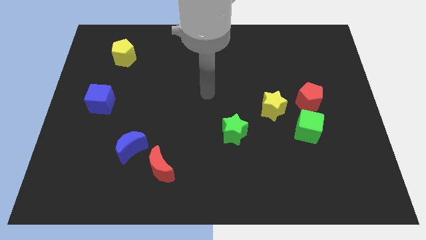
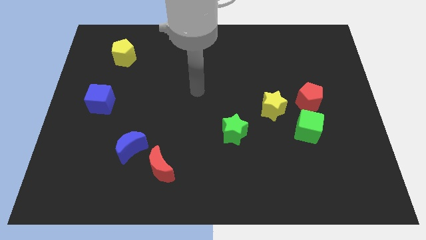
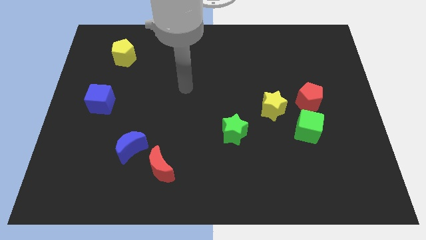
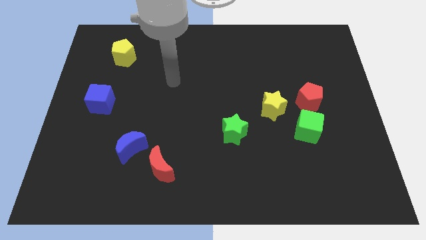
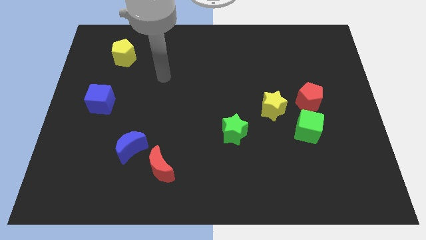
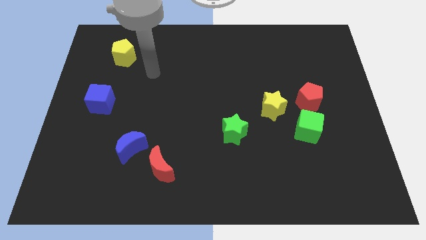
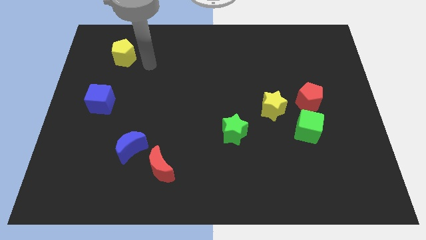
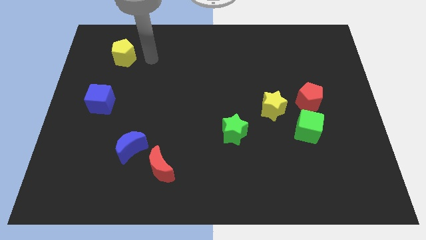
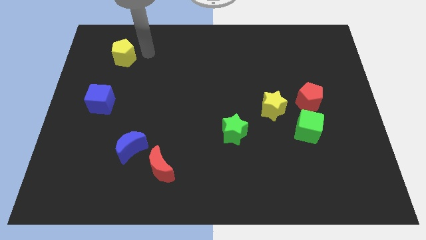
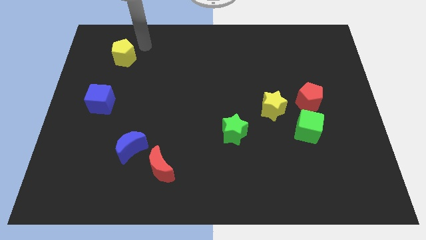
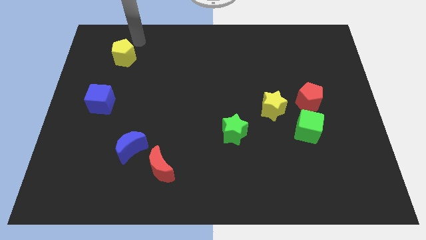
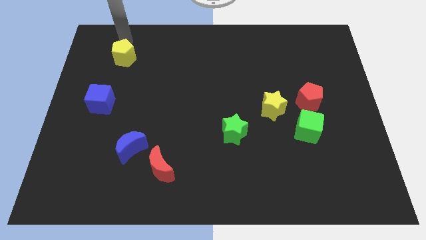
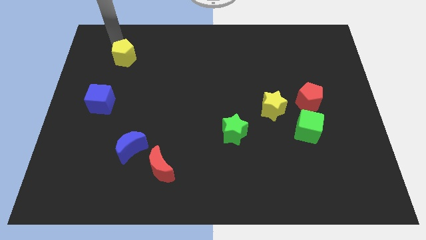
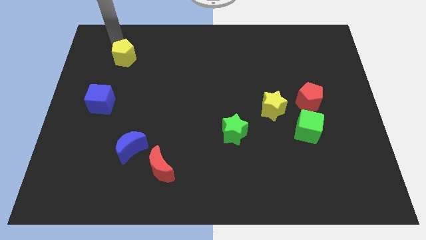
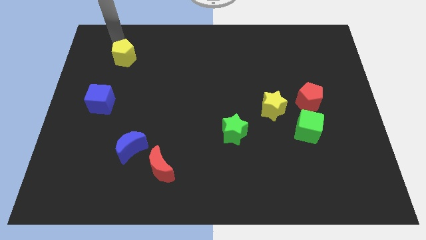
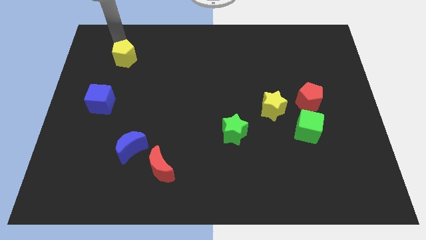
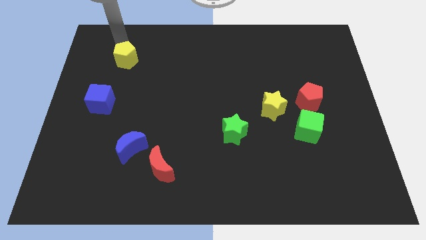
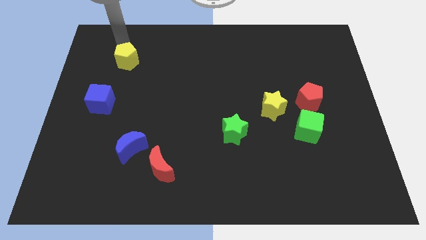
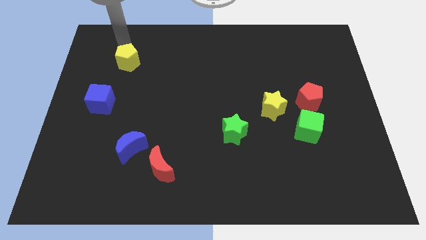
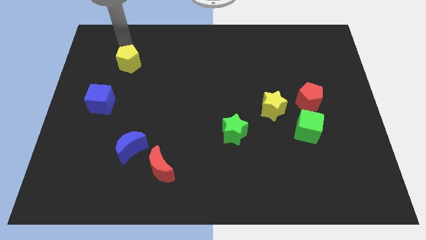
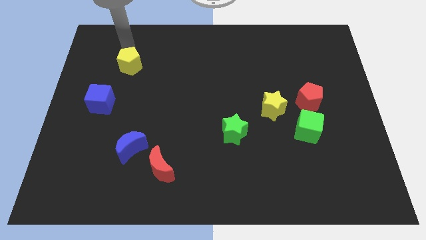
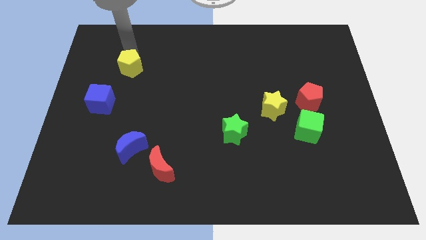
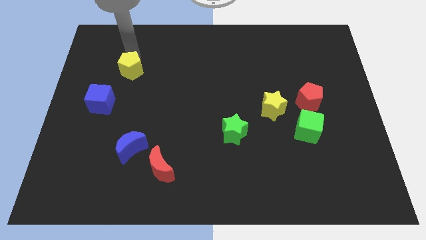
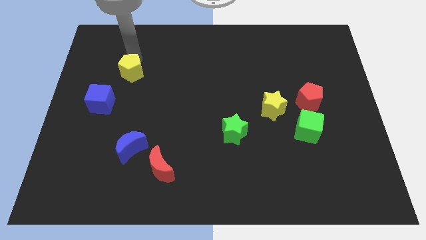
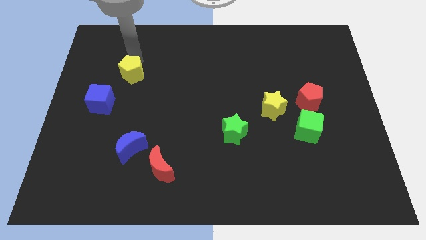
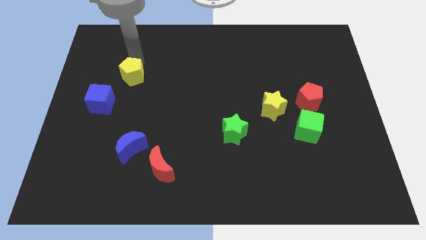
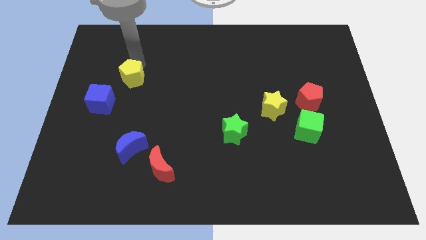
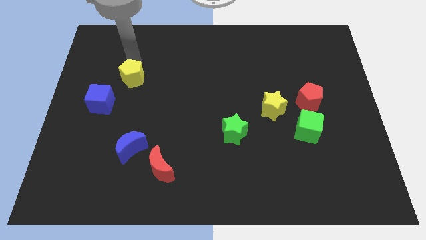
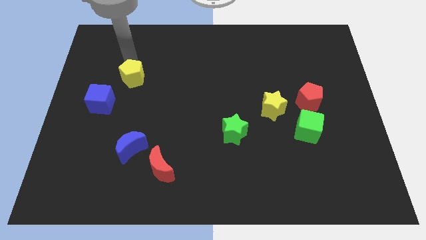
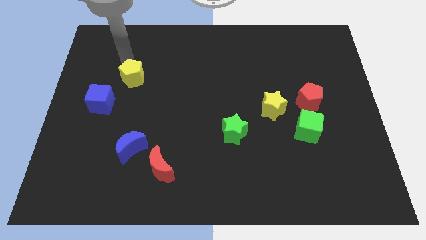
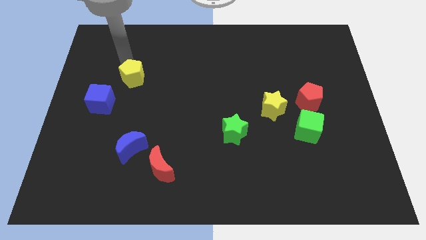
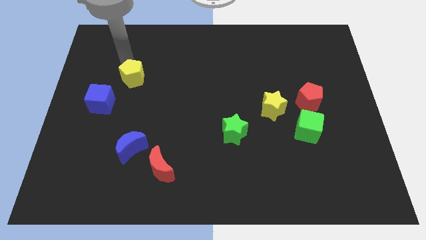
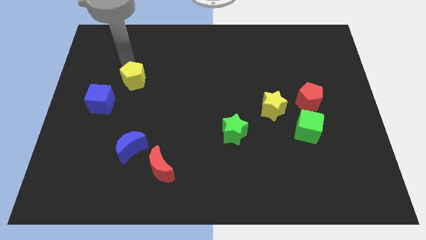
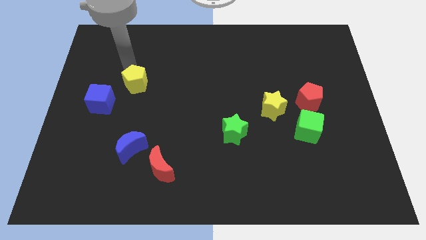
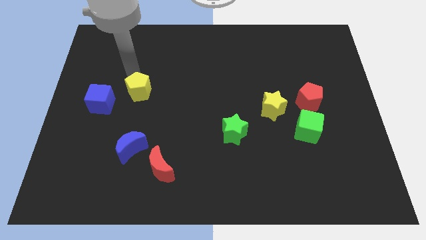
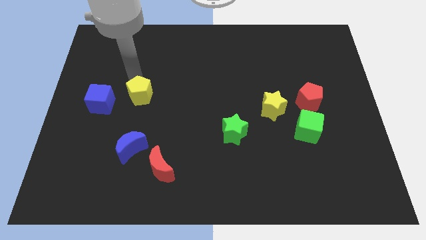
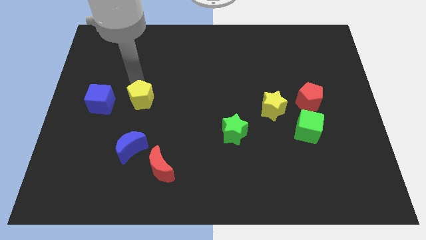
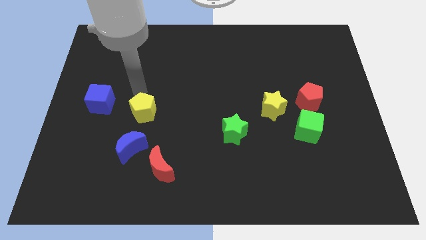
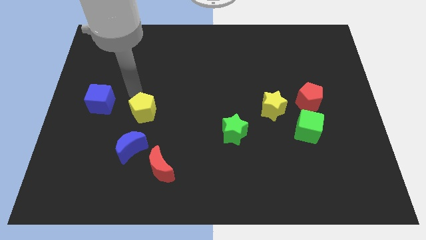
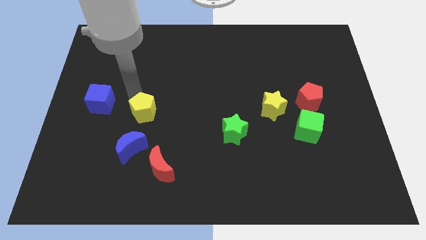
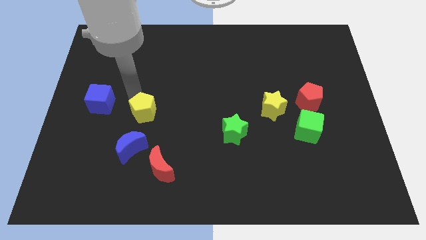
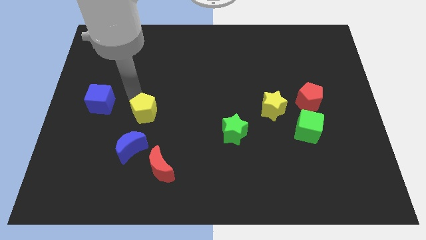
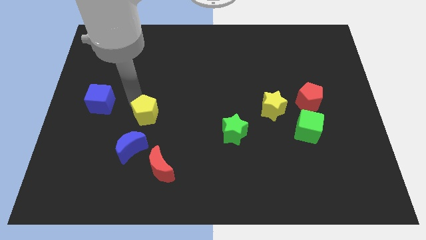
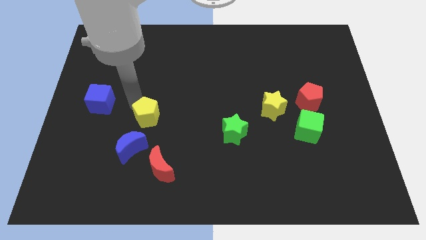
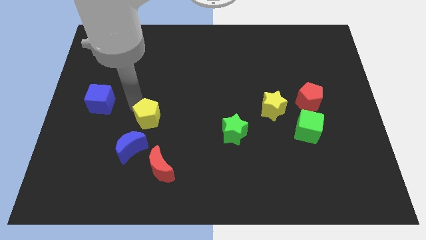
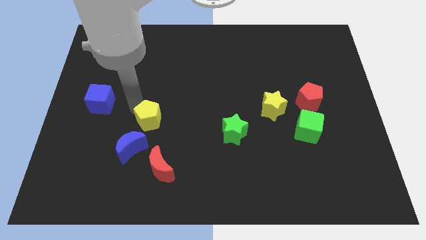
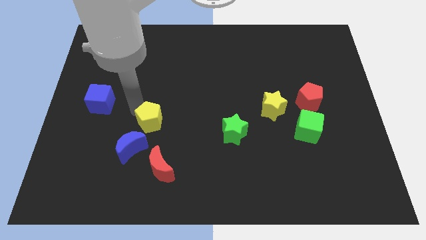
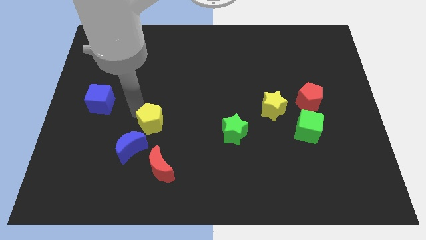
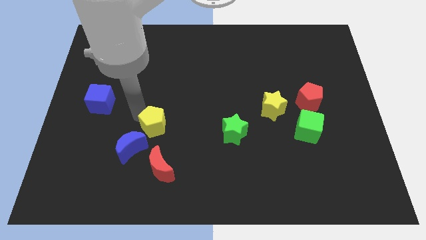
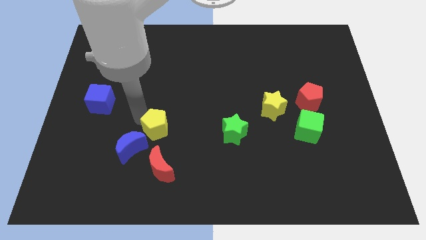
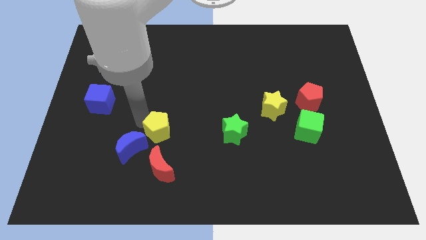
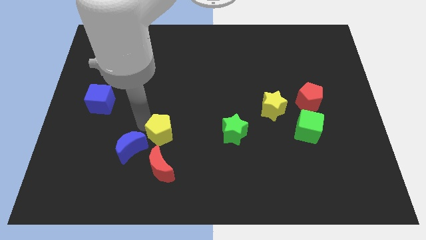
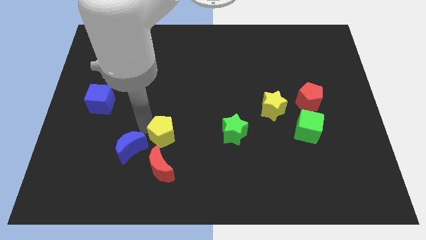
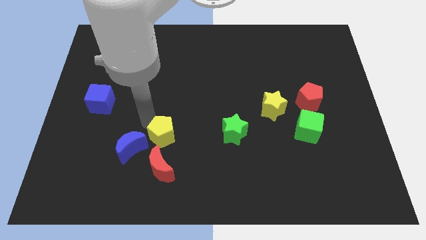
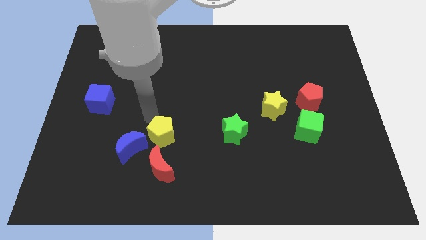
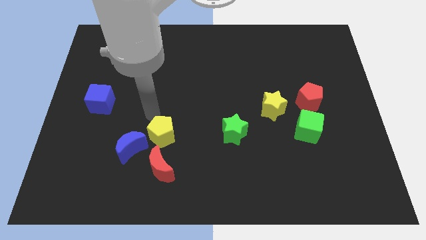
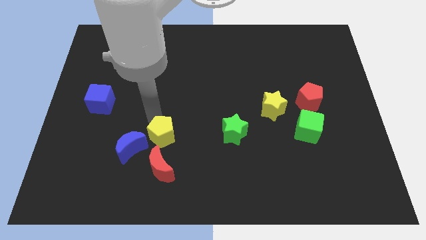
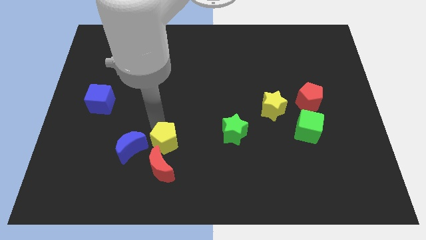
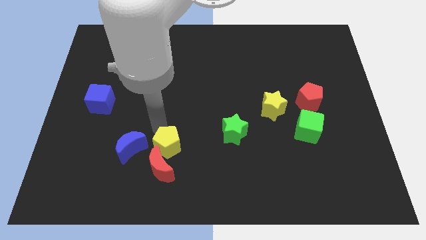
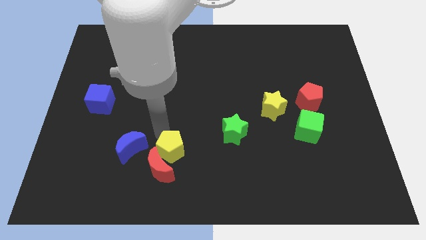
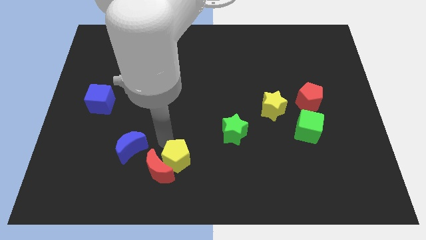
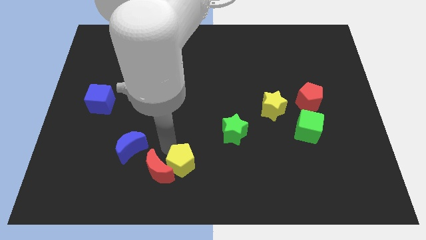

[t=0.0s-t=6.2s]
slide the yellow pentagon to the bottom

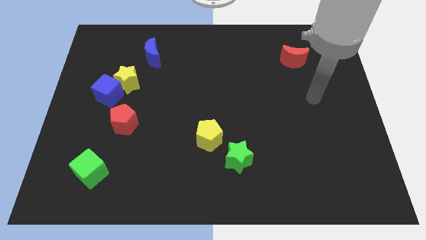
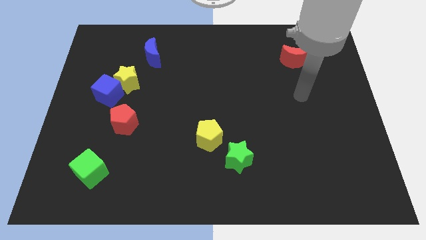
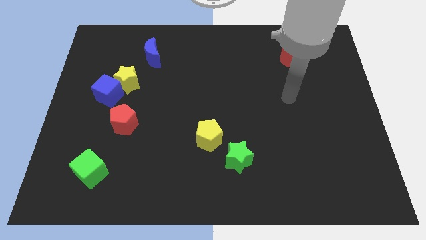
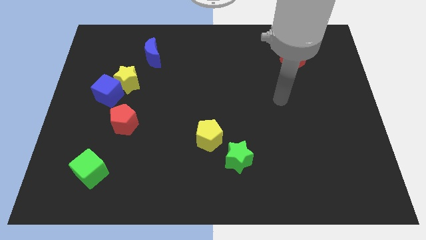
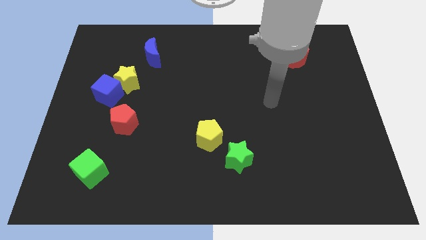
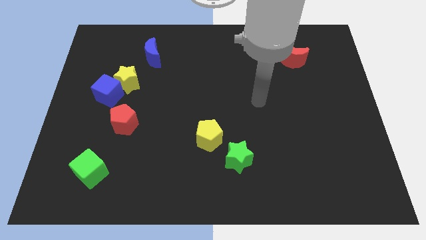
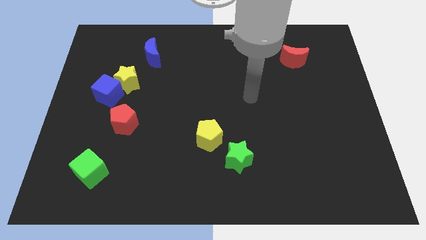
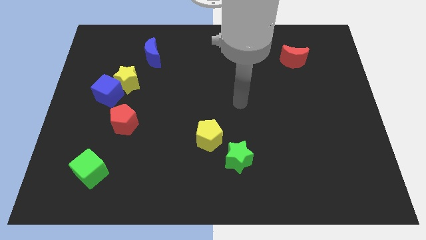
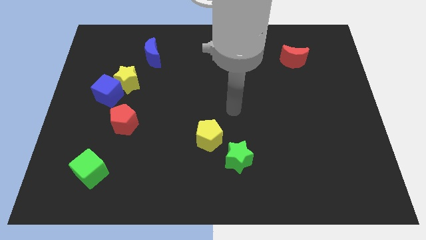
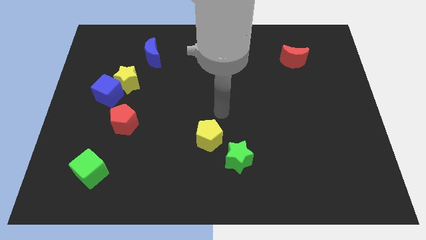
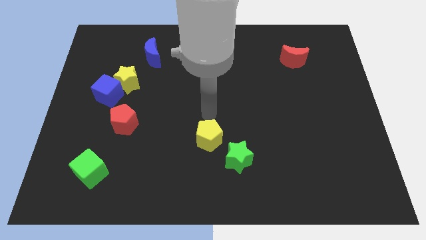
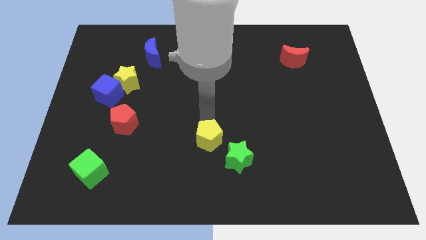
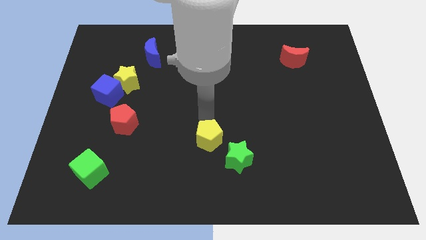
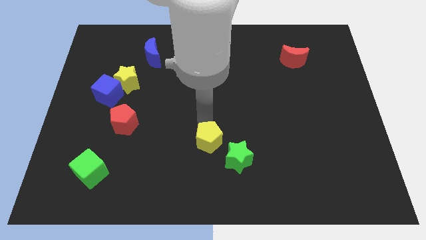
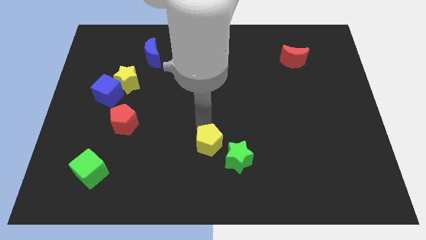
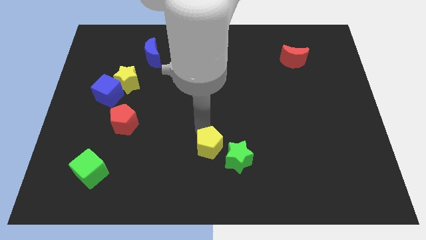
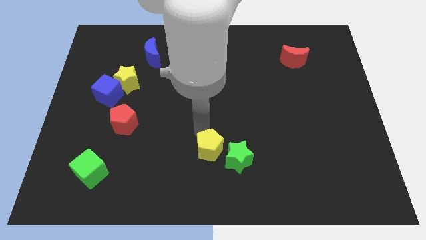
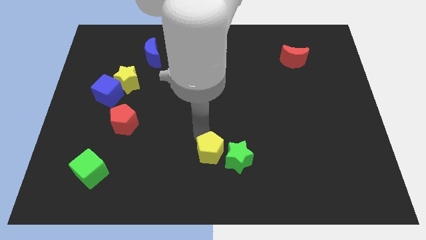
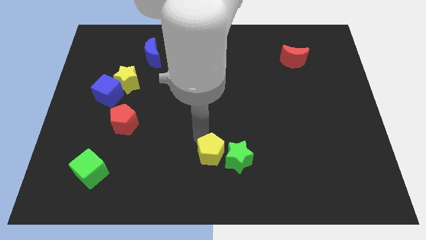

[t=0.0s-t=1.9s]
push the yellow pentagon to the bottom side
